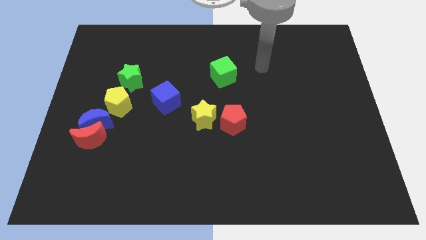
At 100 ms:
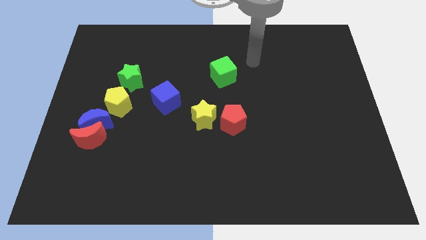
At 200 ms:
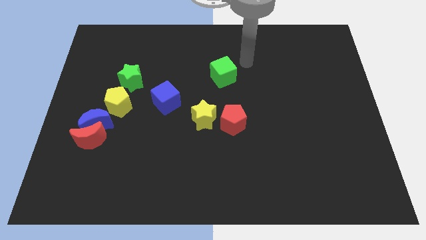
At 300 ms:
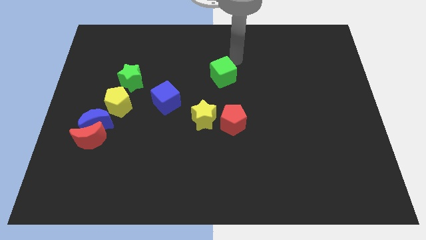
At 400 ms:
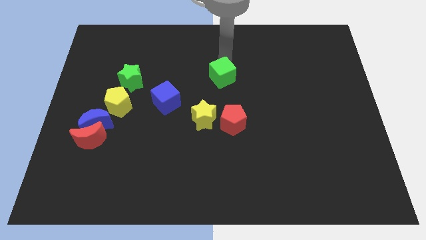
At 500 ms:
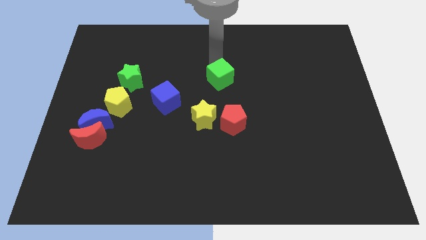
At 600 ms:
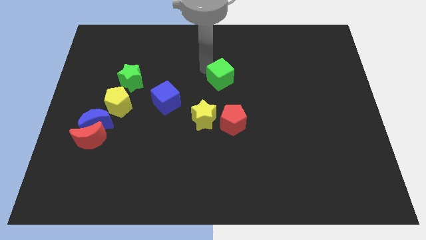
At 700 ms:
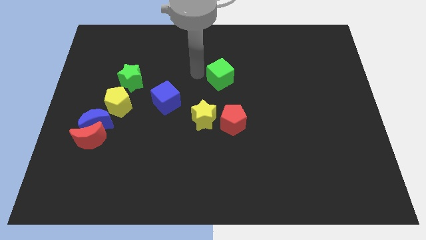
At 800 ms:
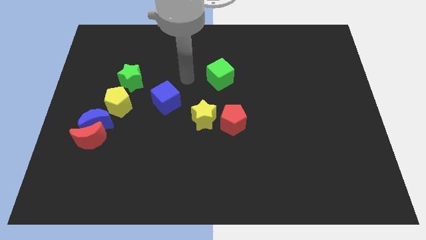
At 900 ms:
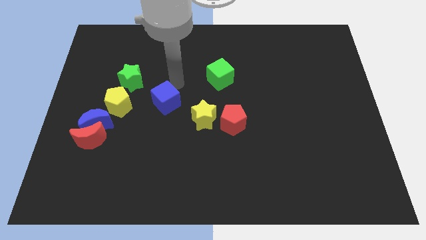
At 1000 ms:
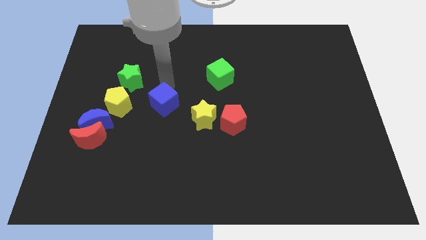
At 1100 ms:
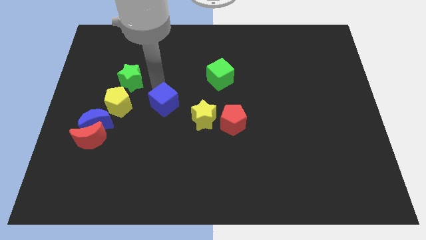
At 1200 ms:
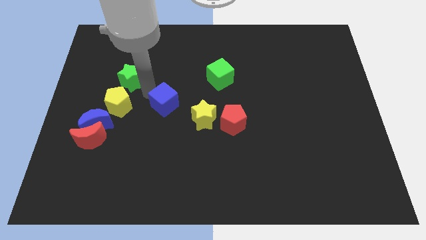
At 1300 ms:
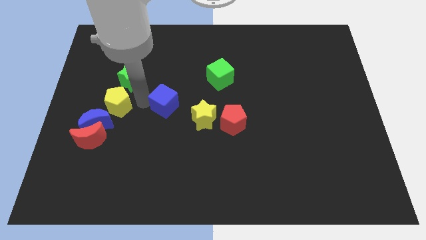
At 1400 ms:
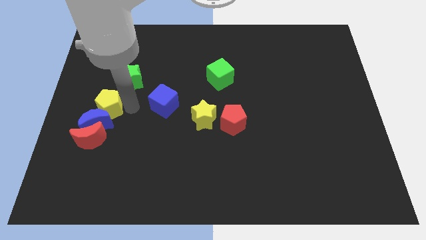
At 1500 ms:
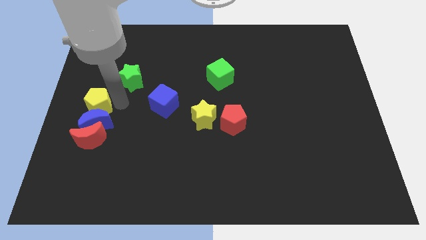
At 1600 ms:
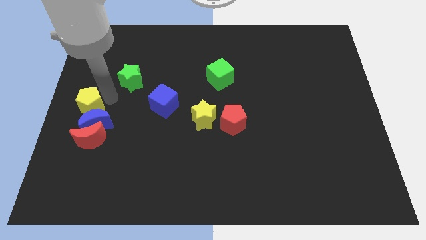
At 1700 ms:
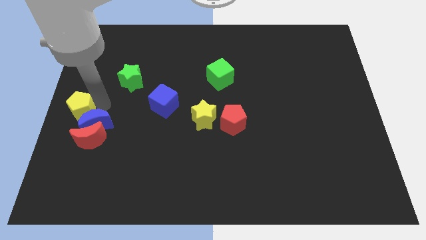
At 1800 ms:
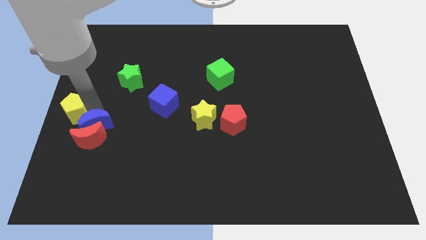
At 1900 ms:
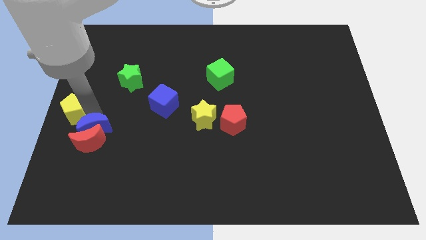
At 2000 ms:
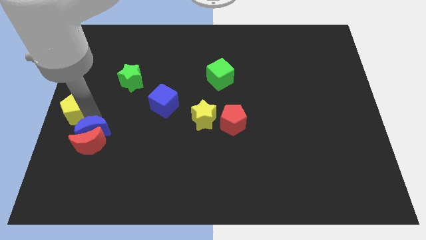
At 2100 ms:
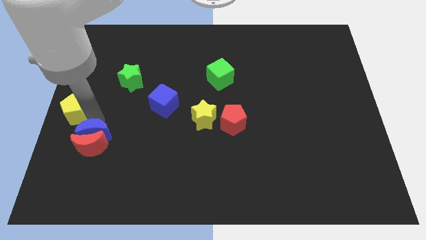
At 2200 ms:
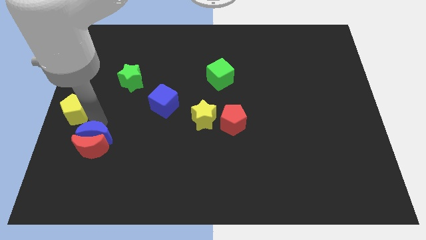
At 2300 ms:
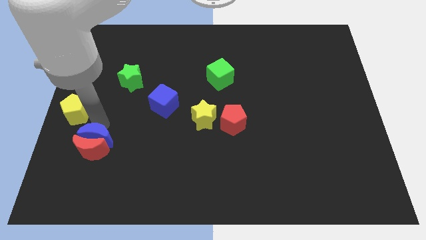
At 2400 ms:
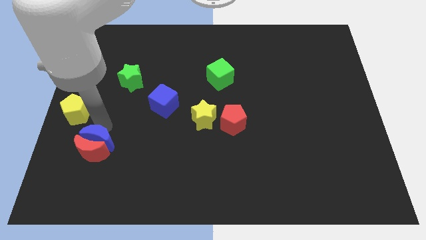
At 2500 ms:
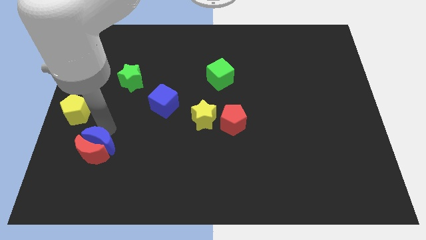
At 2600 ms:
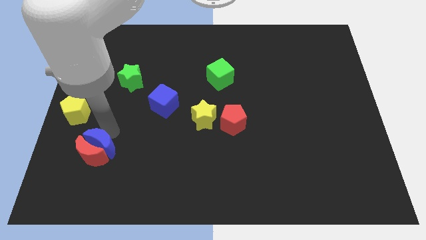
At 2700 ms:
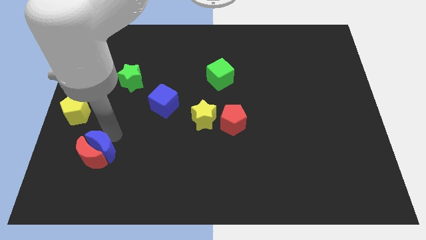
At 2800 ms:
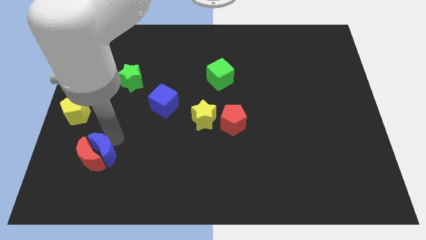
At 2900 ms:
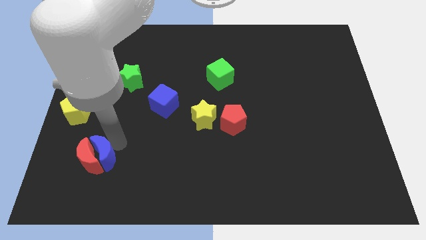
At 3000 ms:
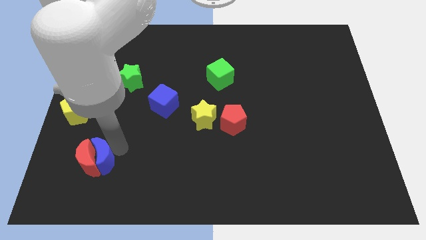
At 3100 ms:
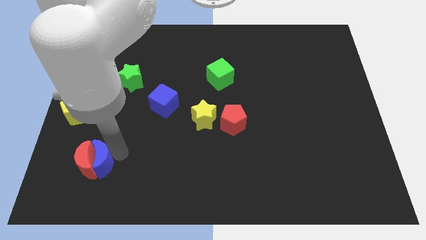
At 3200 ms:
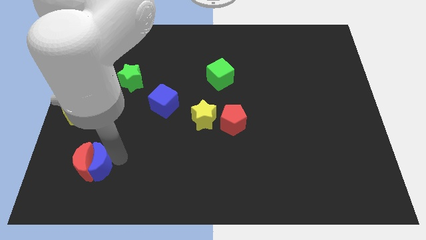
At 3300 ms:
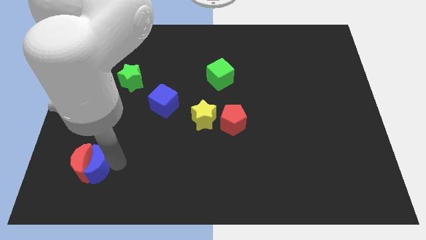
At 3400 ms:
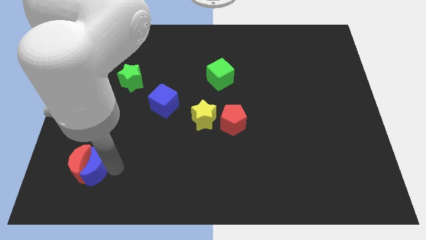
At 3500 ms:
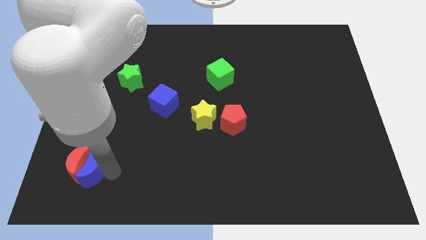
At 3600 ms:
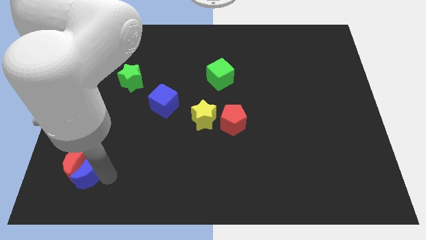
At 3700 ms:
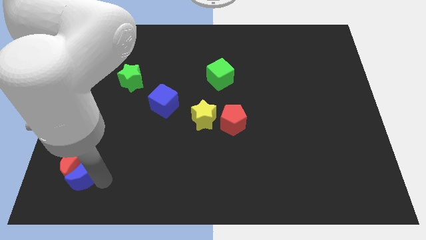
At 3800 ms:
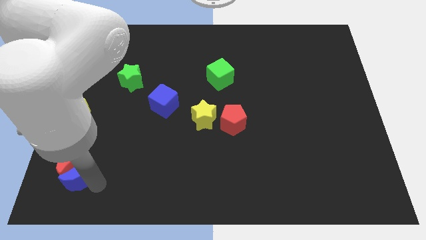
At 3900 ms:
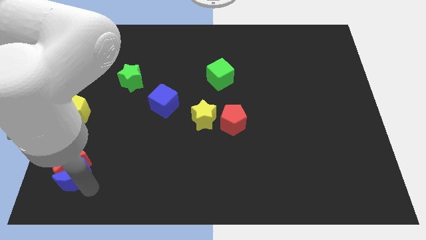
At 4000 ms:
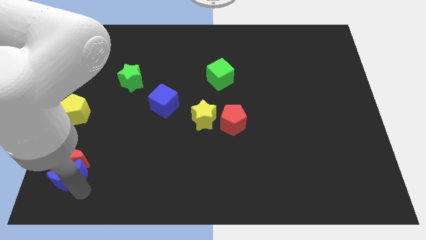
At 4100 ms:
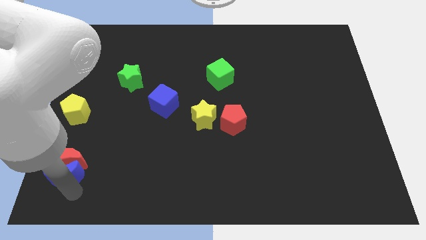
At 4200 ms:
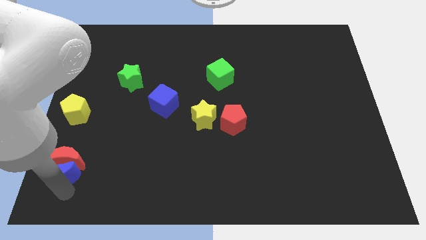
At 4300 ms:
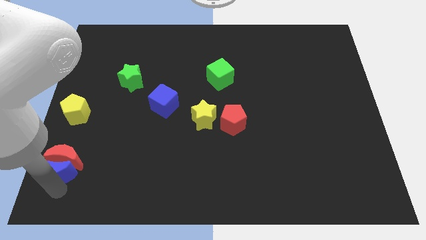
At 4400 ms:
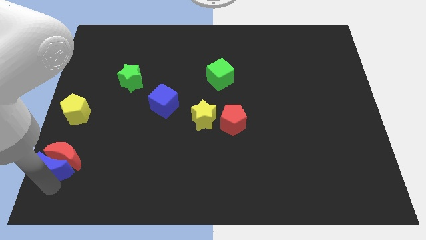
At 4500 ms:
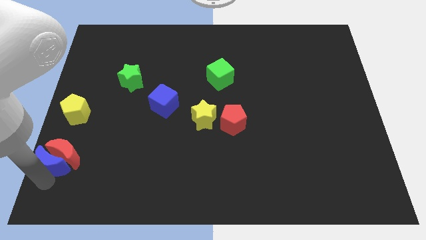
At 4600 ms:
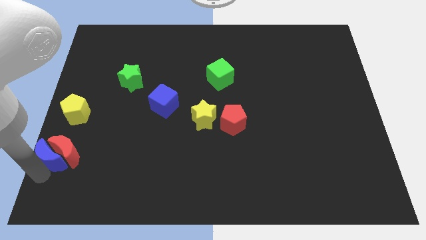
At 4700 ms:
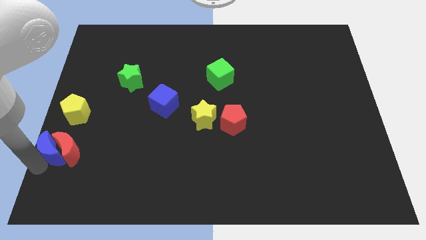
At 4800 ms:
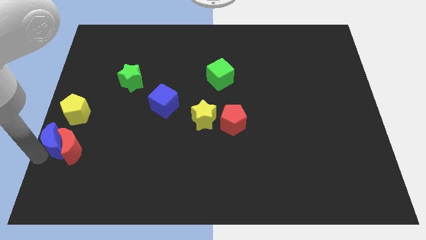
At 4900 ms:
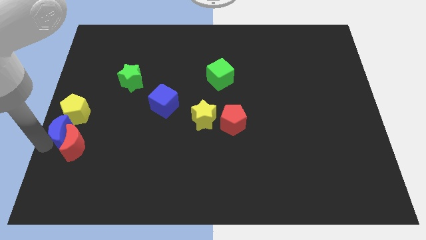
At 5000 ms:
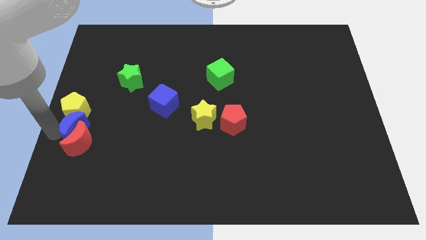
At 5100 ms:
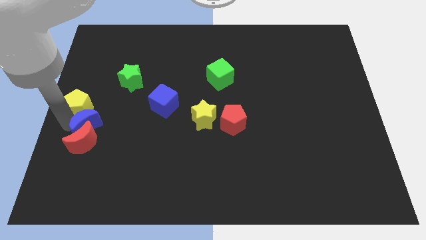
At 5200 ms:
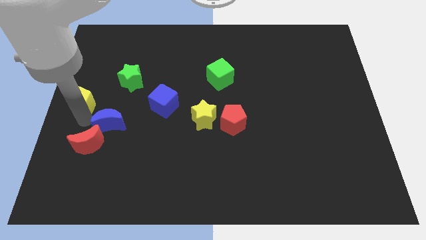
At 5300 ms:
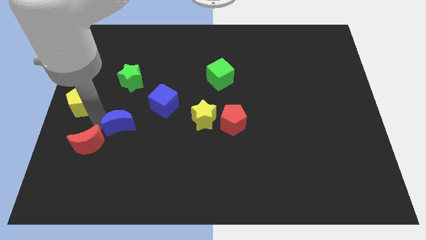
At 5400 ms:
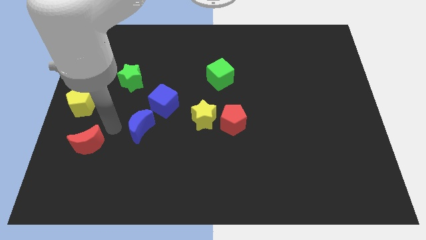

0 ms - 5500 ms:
separate the red moon from the blue moon

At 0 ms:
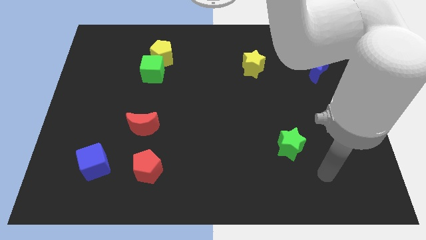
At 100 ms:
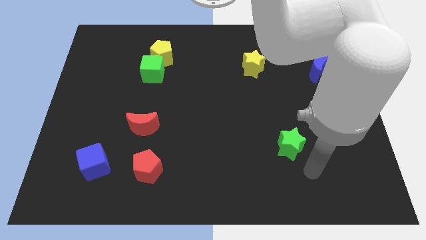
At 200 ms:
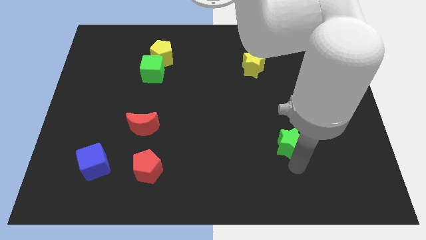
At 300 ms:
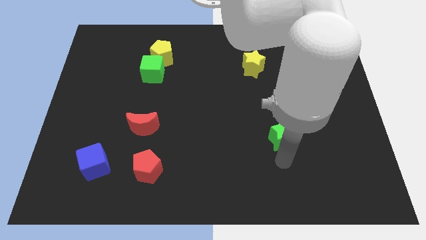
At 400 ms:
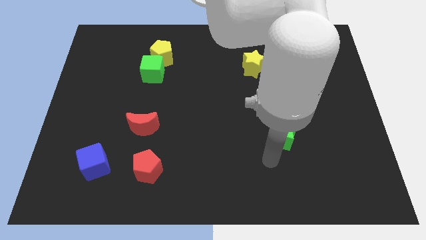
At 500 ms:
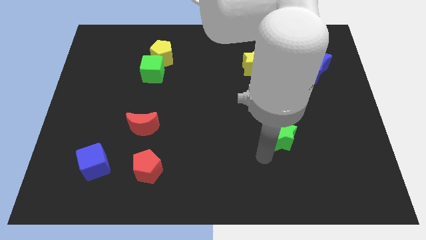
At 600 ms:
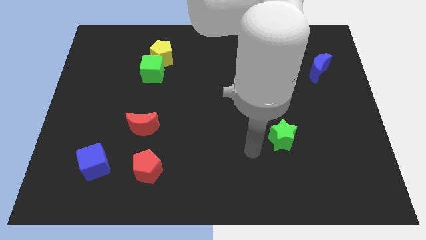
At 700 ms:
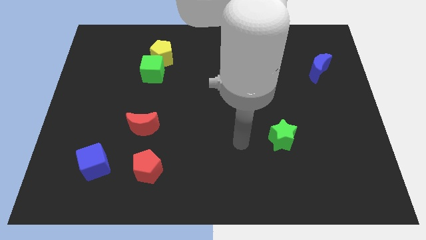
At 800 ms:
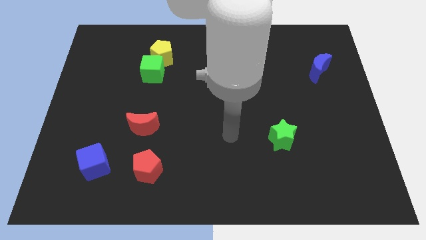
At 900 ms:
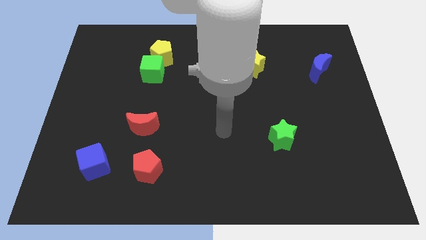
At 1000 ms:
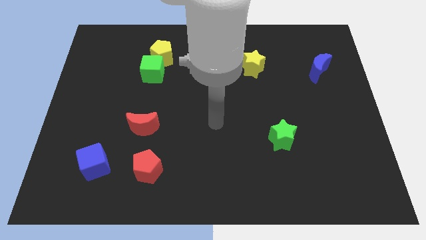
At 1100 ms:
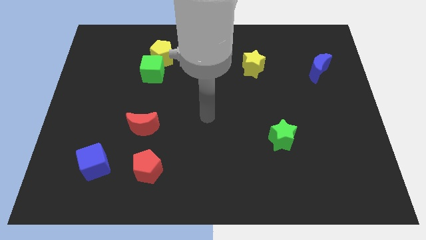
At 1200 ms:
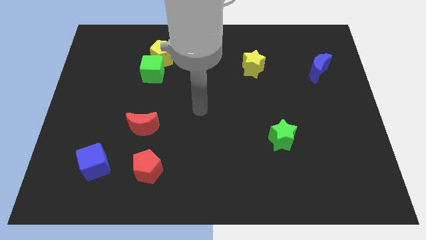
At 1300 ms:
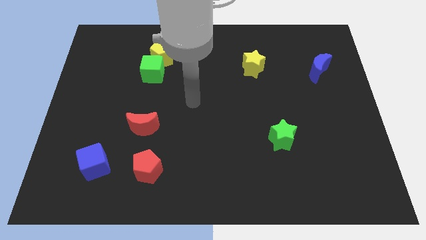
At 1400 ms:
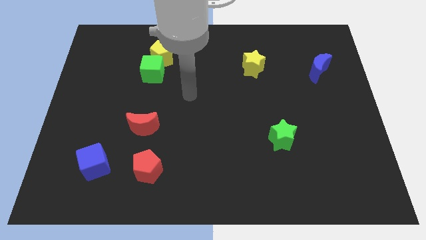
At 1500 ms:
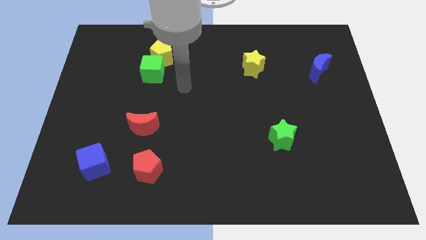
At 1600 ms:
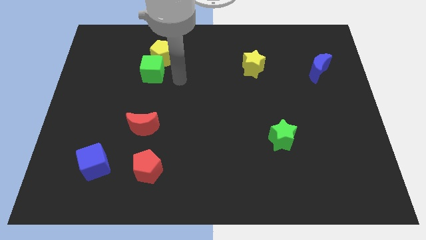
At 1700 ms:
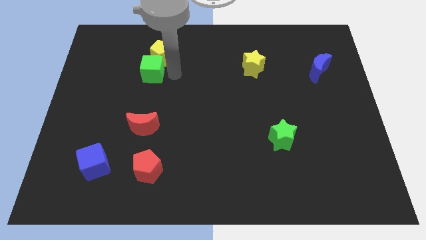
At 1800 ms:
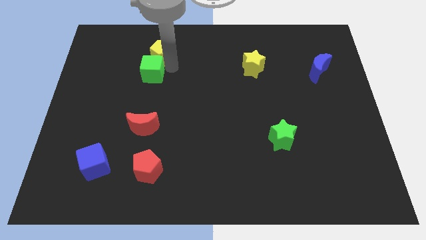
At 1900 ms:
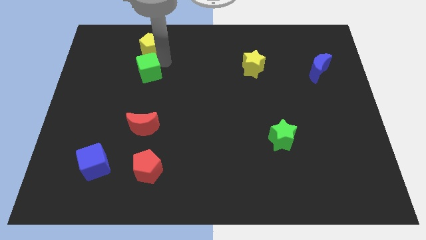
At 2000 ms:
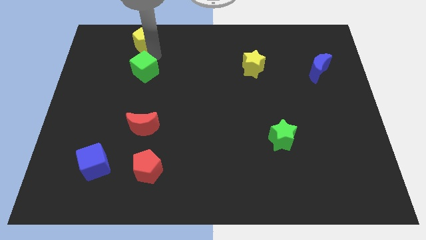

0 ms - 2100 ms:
separate the green cube from the yellow pentagon

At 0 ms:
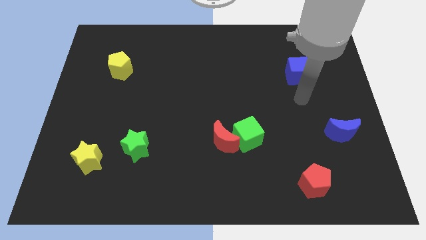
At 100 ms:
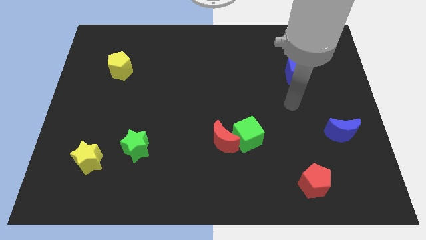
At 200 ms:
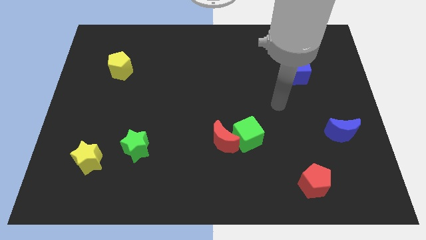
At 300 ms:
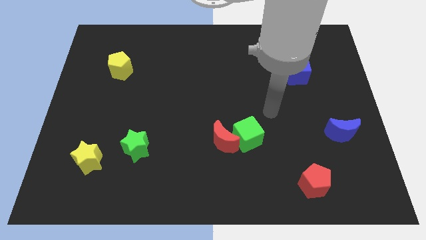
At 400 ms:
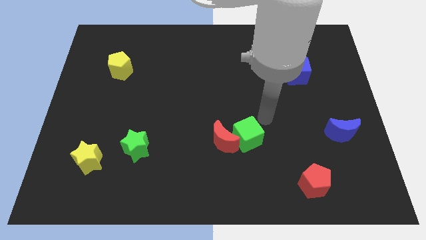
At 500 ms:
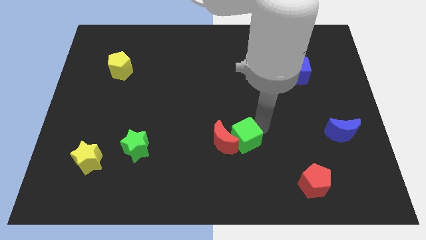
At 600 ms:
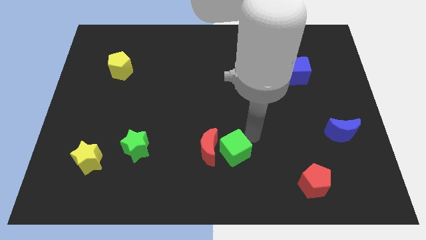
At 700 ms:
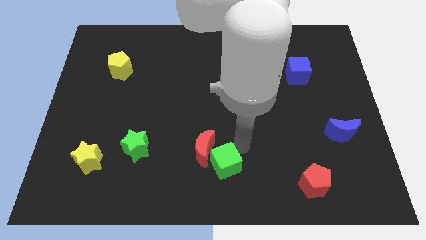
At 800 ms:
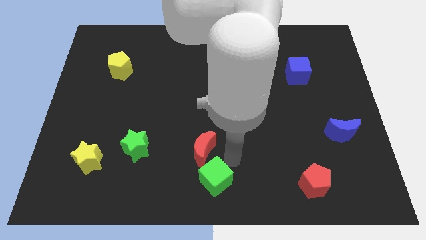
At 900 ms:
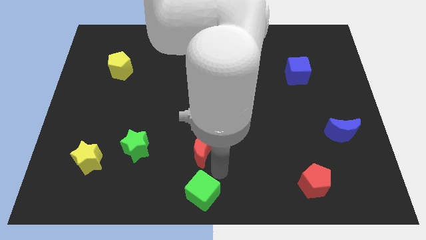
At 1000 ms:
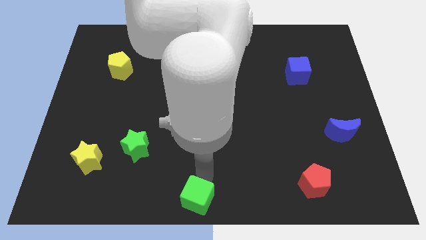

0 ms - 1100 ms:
move the red moon away from the green cube

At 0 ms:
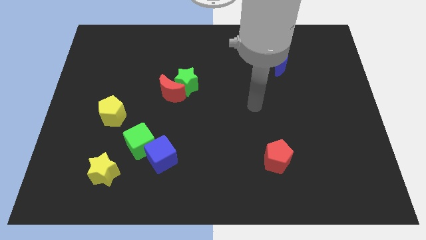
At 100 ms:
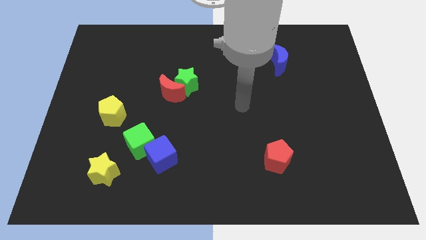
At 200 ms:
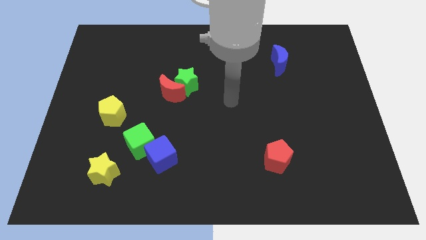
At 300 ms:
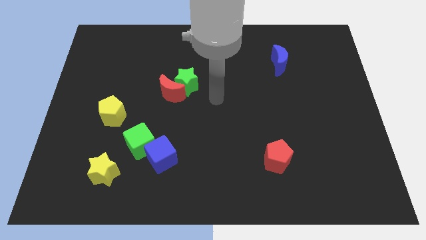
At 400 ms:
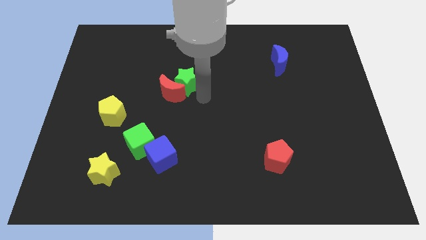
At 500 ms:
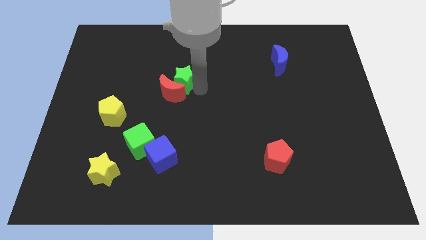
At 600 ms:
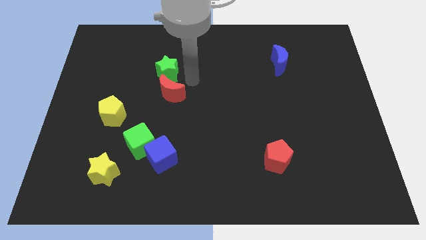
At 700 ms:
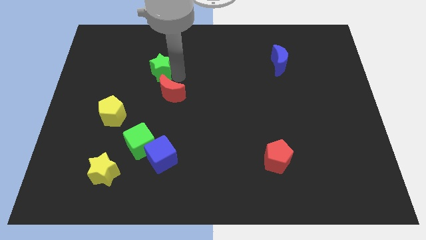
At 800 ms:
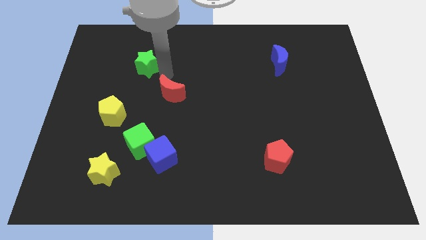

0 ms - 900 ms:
pull the red moon apart from the green star
